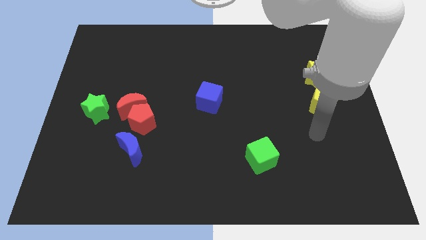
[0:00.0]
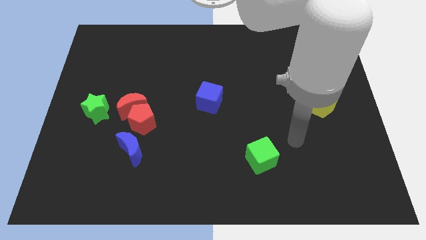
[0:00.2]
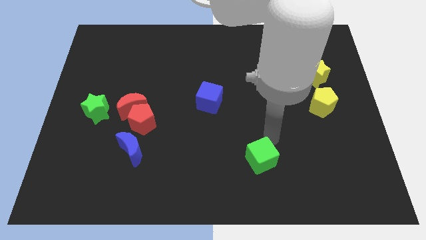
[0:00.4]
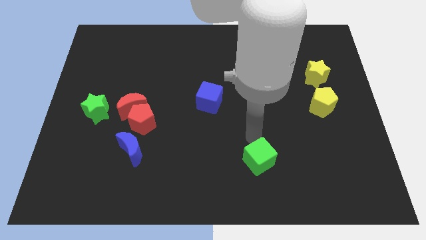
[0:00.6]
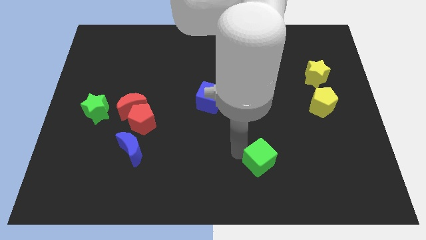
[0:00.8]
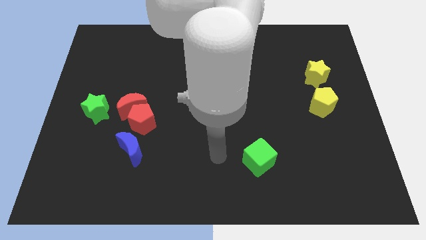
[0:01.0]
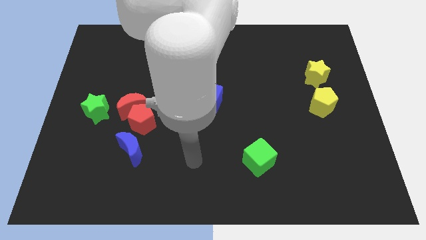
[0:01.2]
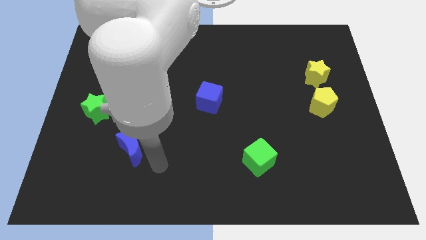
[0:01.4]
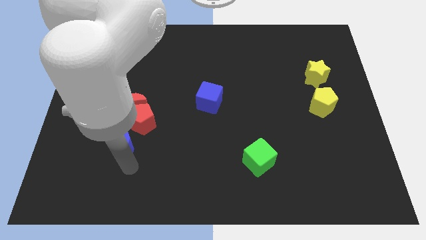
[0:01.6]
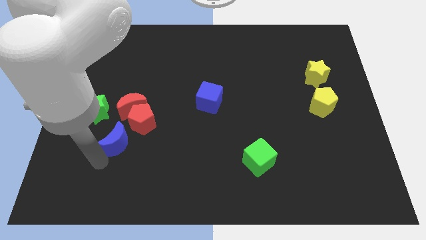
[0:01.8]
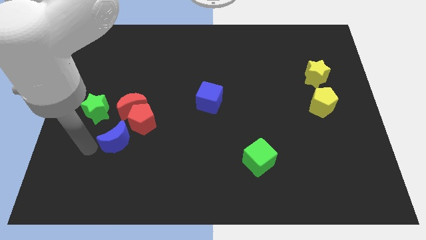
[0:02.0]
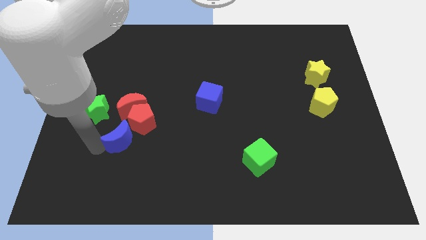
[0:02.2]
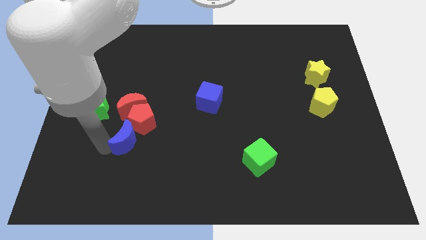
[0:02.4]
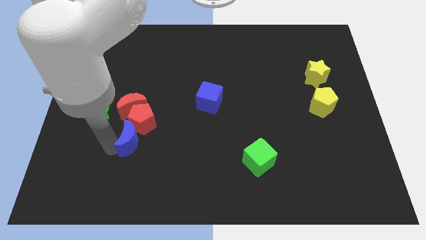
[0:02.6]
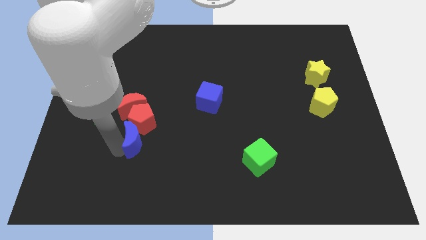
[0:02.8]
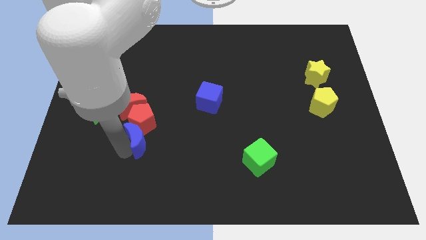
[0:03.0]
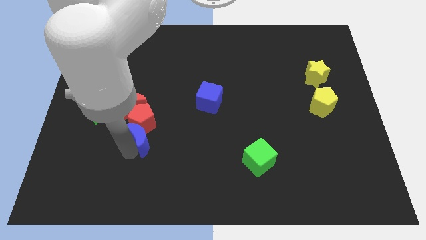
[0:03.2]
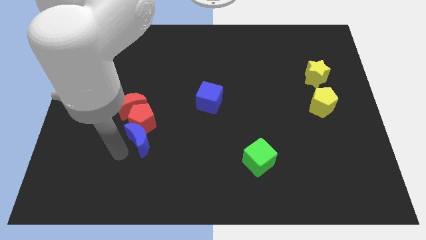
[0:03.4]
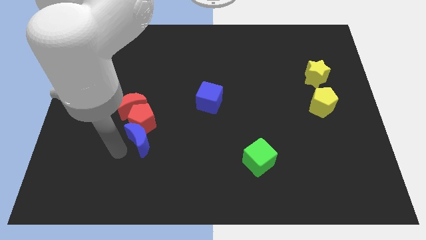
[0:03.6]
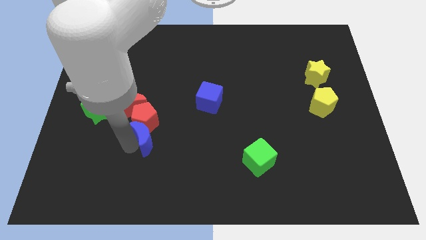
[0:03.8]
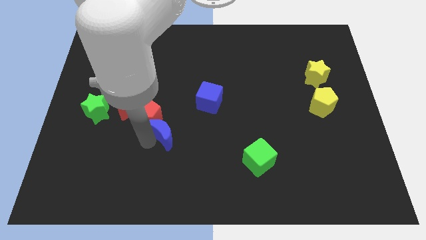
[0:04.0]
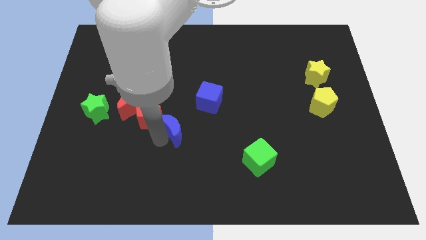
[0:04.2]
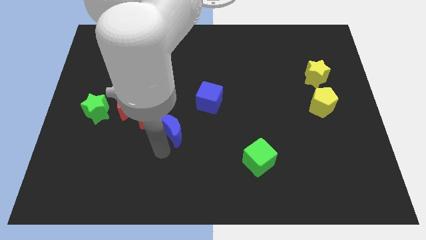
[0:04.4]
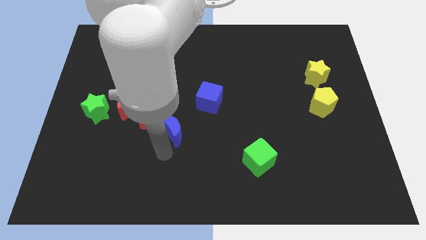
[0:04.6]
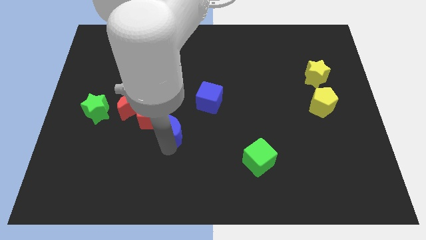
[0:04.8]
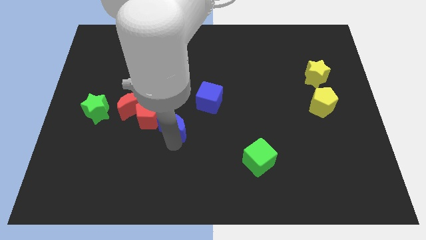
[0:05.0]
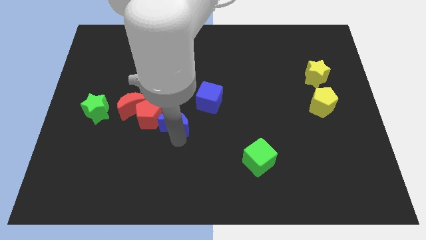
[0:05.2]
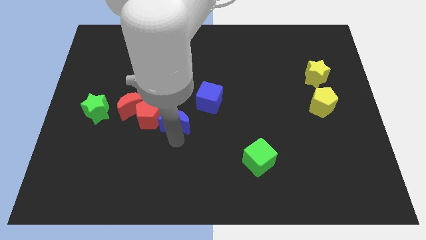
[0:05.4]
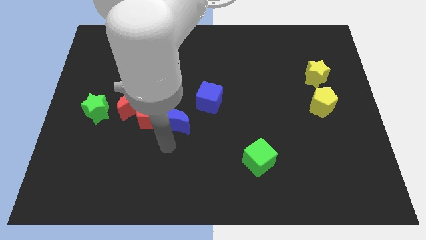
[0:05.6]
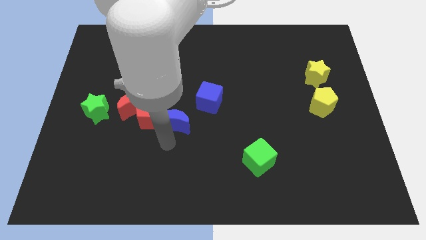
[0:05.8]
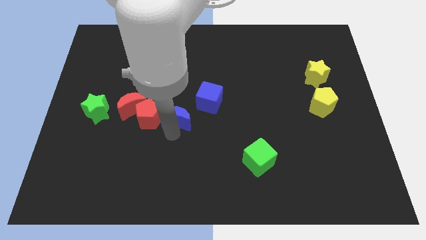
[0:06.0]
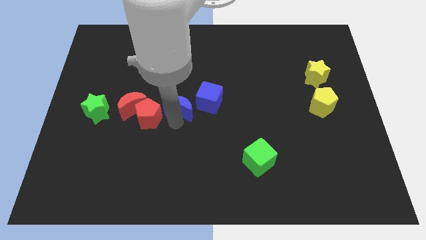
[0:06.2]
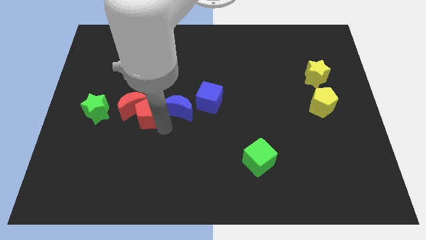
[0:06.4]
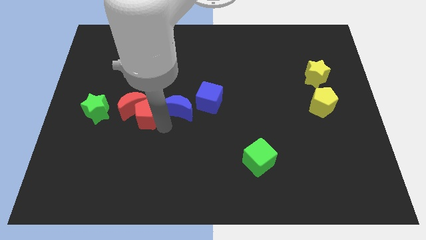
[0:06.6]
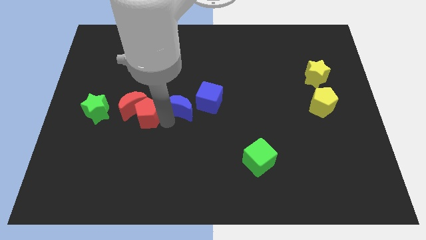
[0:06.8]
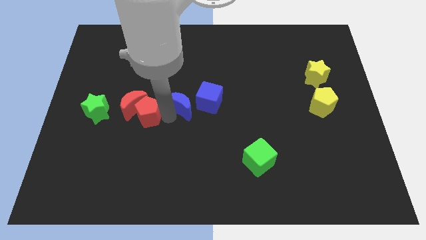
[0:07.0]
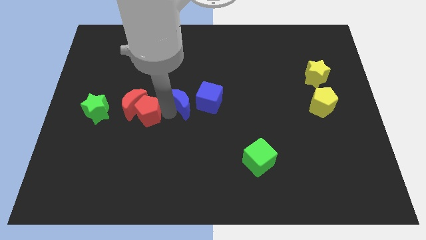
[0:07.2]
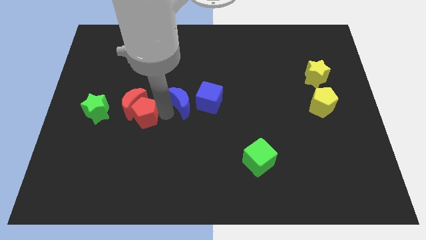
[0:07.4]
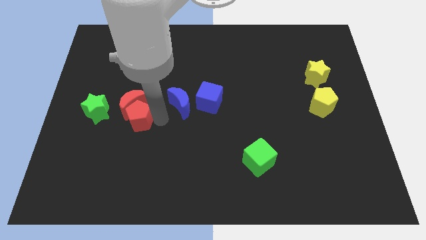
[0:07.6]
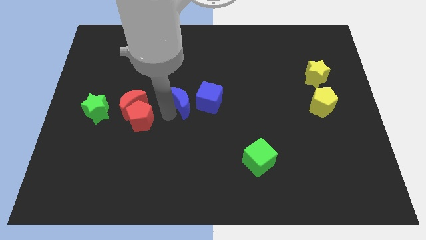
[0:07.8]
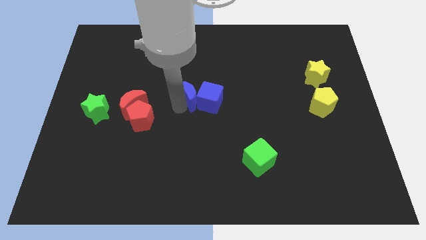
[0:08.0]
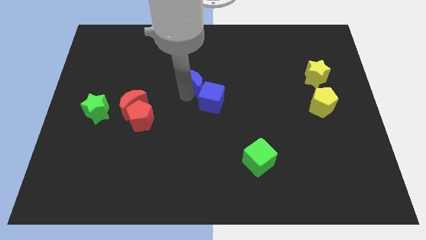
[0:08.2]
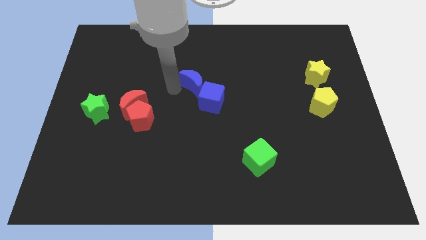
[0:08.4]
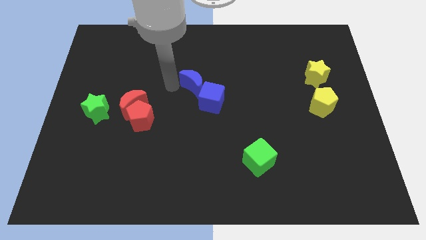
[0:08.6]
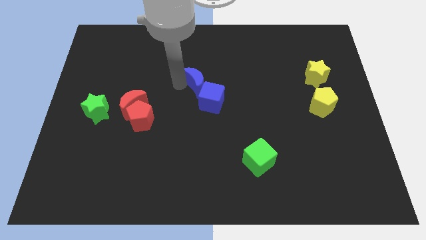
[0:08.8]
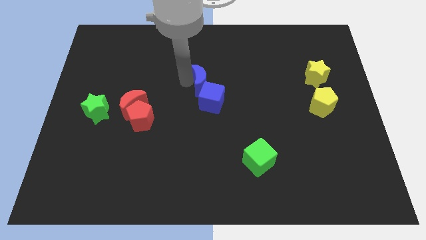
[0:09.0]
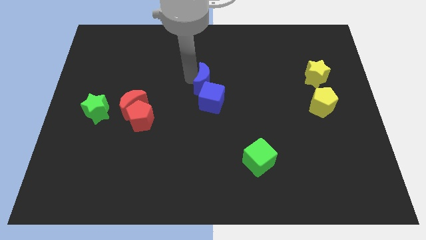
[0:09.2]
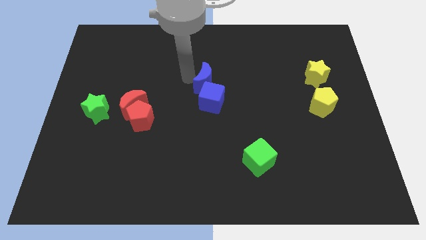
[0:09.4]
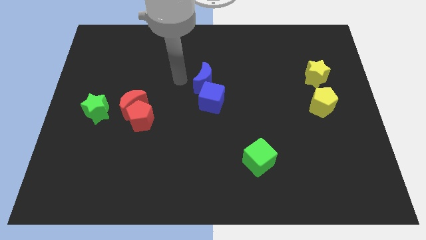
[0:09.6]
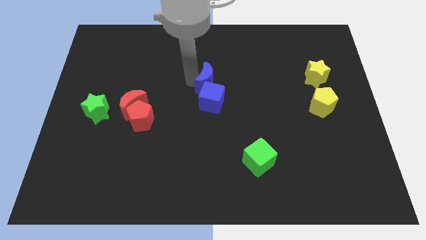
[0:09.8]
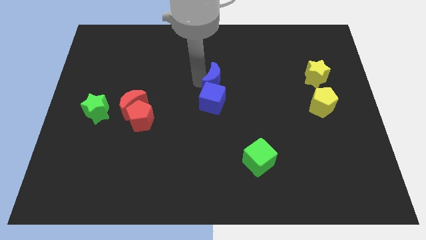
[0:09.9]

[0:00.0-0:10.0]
push the blue moon to the top right of the blue cube

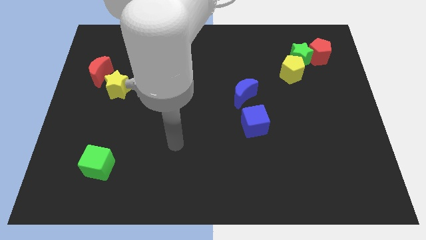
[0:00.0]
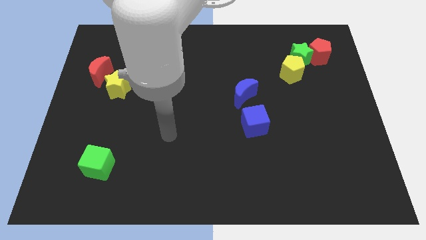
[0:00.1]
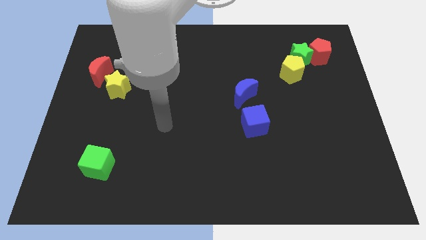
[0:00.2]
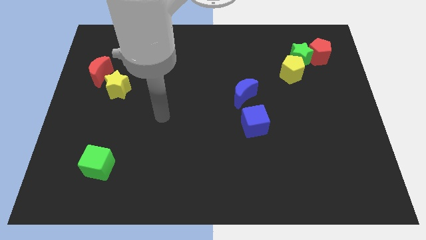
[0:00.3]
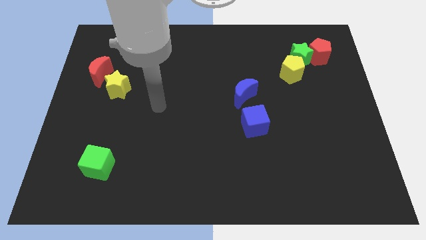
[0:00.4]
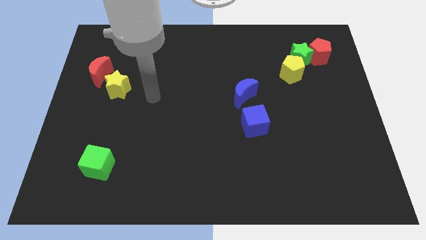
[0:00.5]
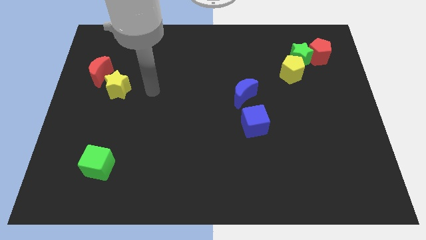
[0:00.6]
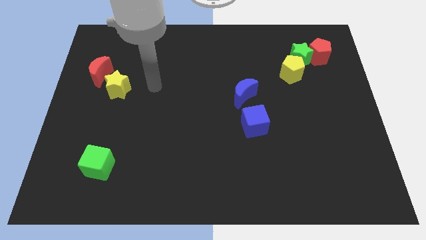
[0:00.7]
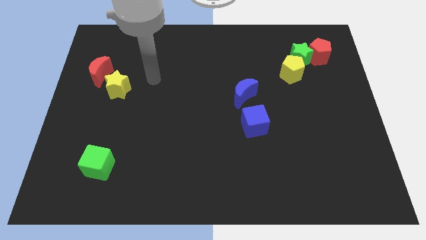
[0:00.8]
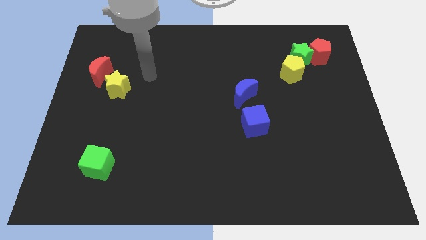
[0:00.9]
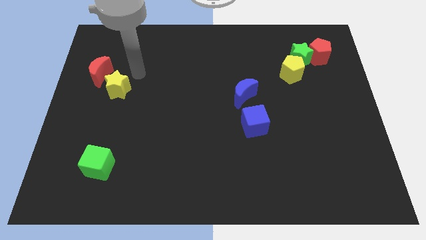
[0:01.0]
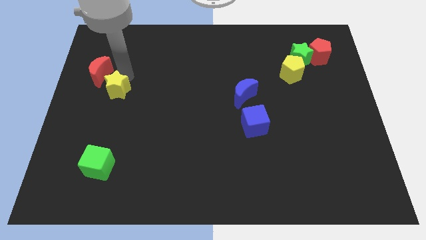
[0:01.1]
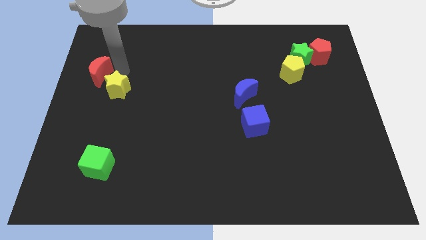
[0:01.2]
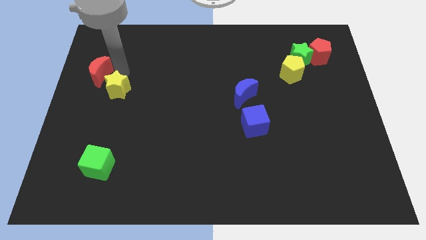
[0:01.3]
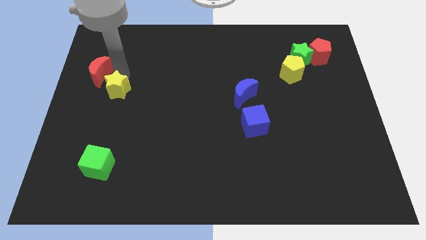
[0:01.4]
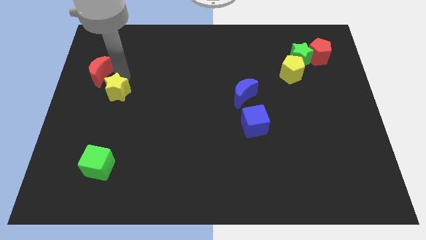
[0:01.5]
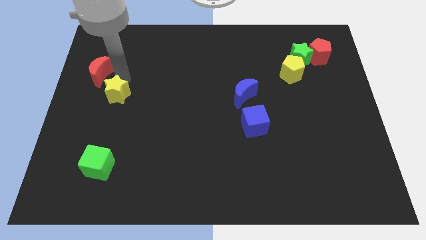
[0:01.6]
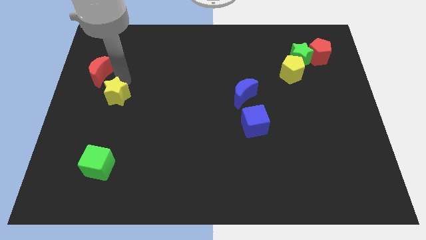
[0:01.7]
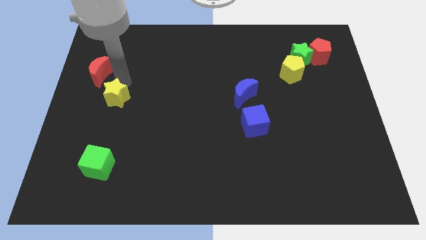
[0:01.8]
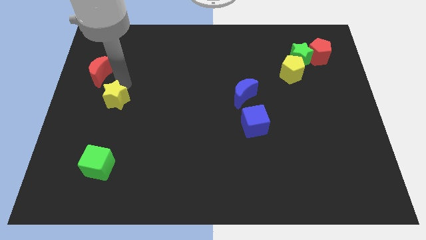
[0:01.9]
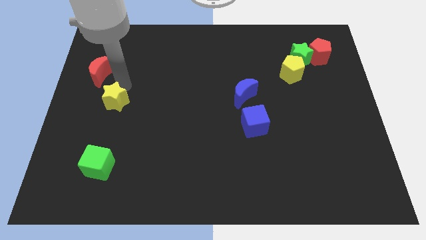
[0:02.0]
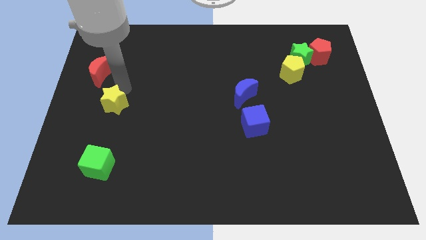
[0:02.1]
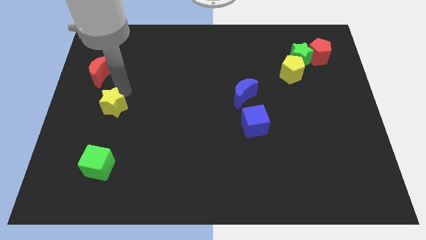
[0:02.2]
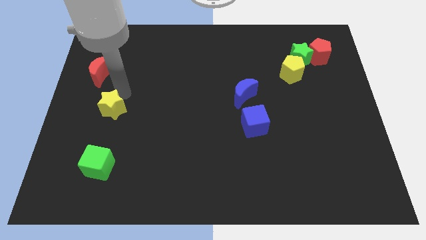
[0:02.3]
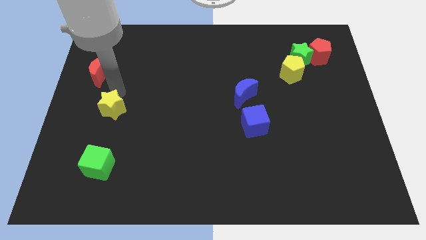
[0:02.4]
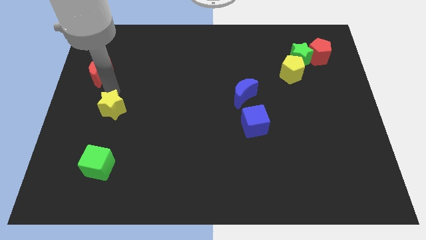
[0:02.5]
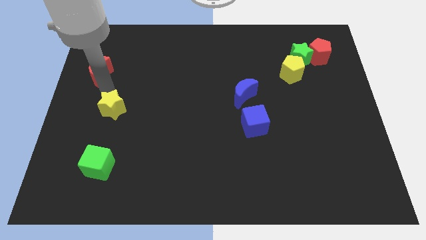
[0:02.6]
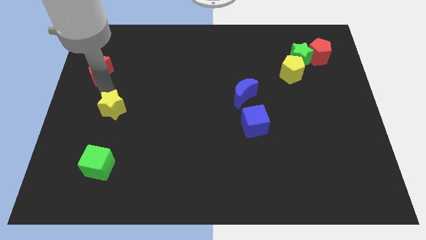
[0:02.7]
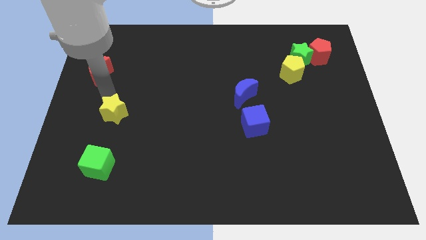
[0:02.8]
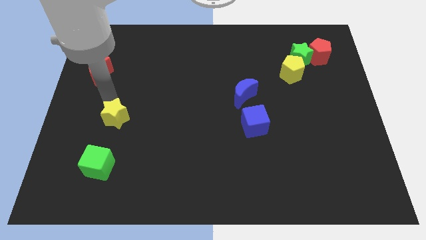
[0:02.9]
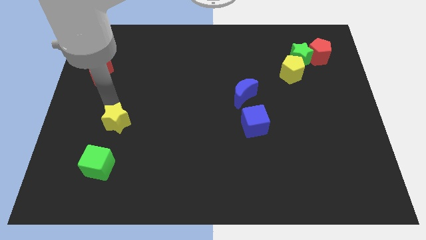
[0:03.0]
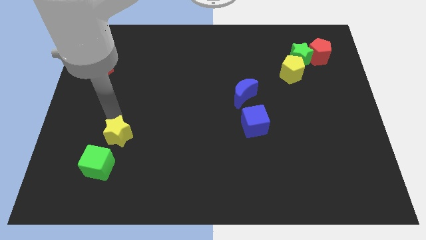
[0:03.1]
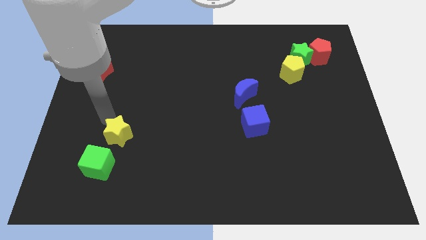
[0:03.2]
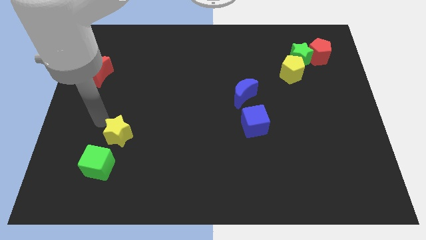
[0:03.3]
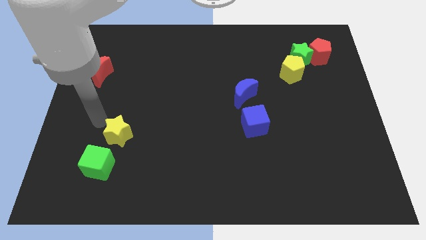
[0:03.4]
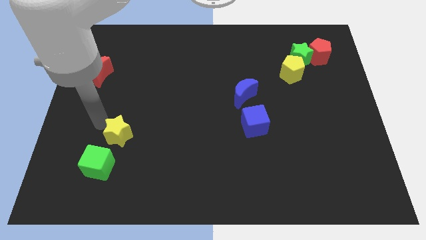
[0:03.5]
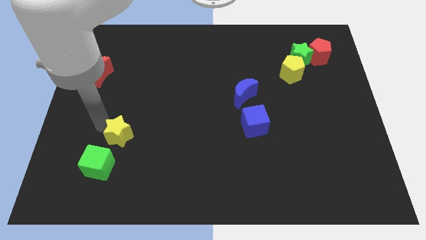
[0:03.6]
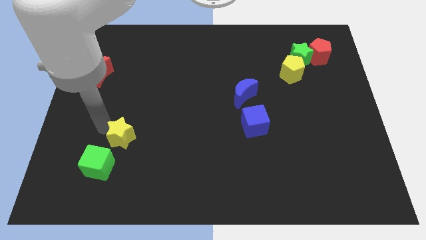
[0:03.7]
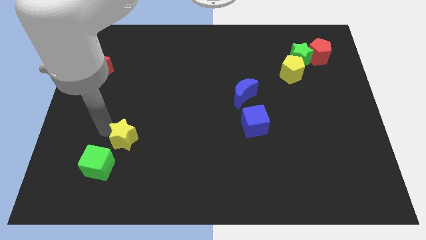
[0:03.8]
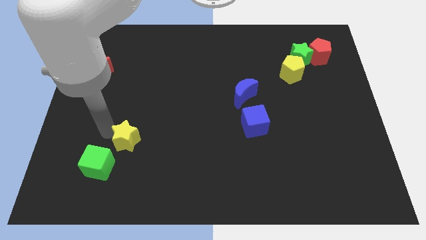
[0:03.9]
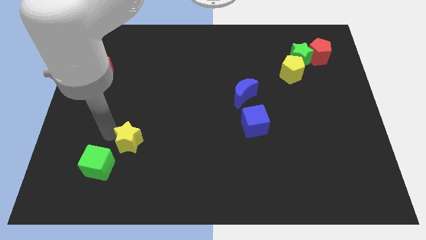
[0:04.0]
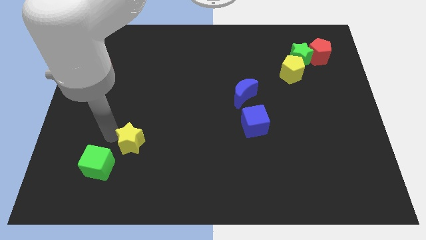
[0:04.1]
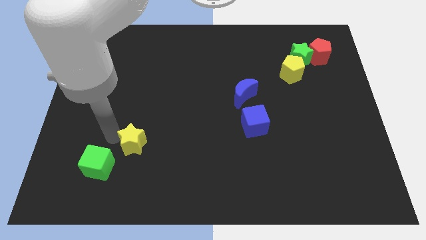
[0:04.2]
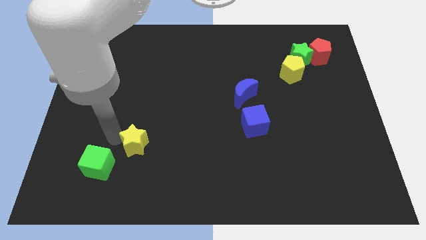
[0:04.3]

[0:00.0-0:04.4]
put the yellow star to the right of the green cube
